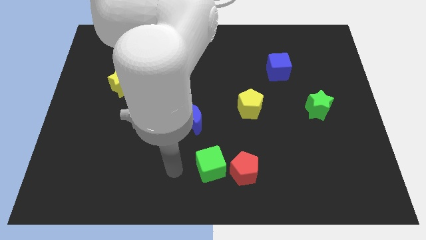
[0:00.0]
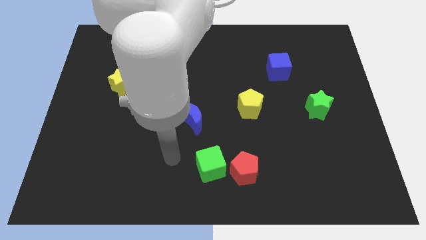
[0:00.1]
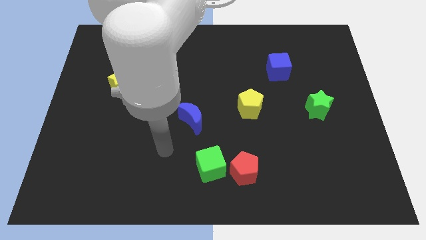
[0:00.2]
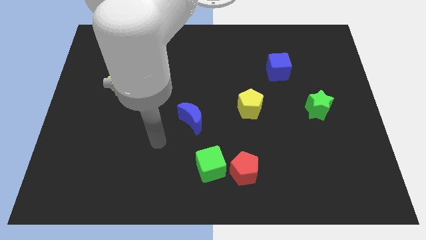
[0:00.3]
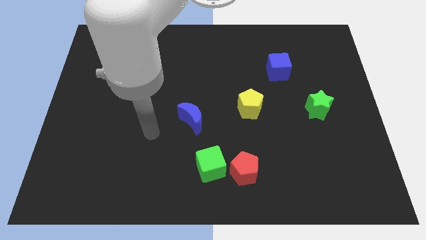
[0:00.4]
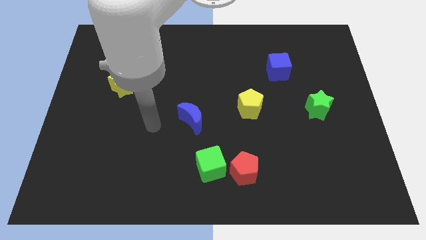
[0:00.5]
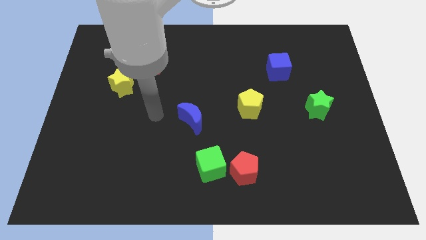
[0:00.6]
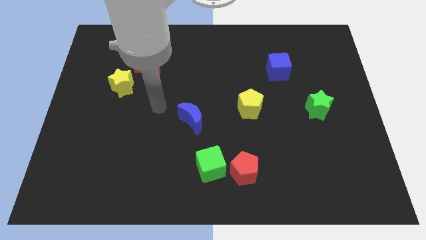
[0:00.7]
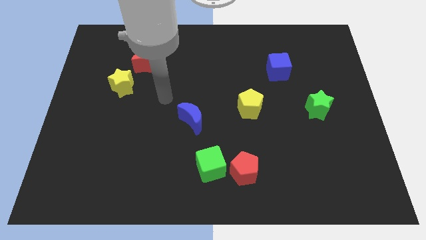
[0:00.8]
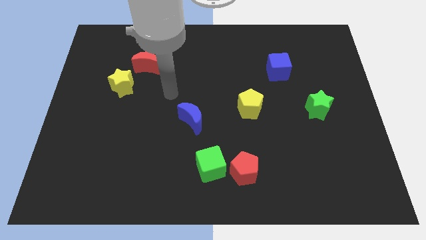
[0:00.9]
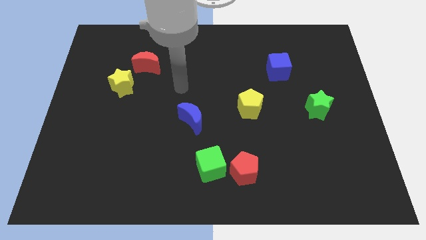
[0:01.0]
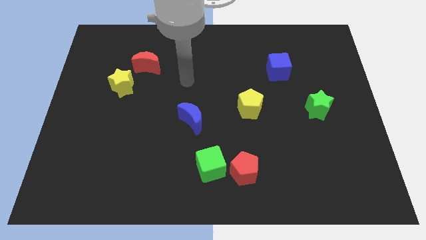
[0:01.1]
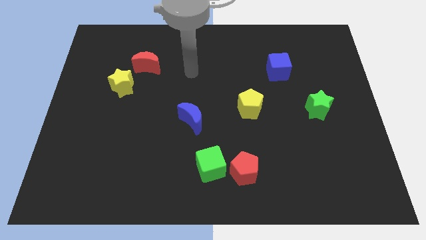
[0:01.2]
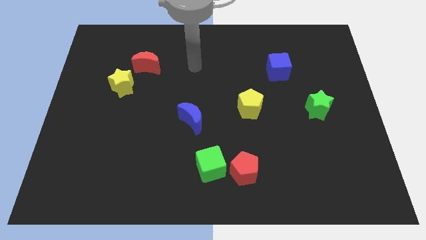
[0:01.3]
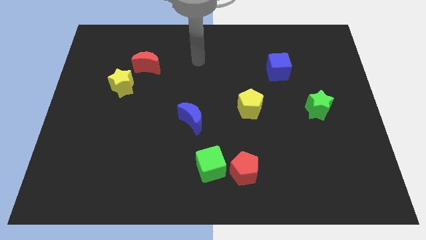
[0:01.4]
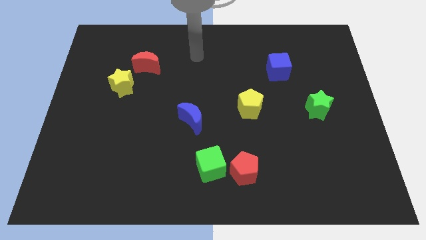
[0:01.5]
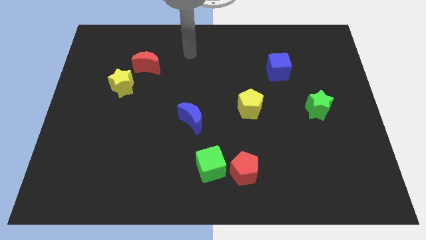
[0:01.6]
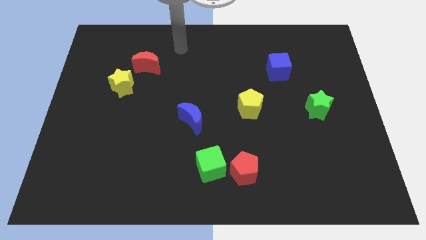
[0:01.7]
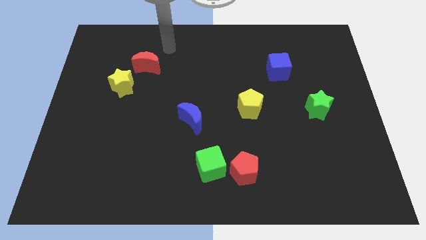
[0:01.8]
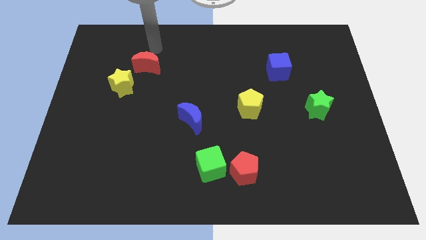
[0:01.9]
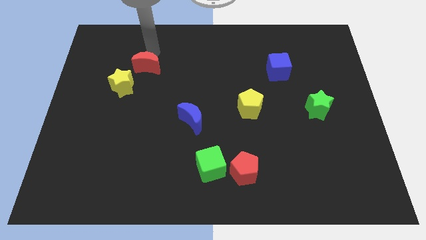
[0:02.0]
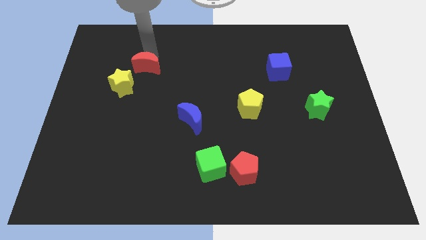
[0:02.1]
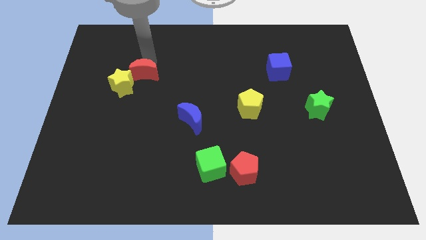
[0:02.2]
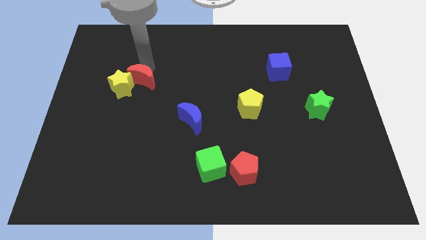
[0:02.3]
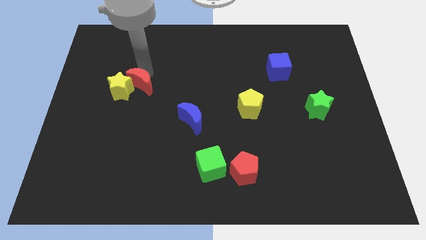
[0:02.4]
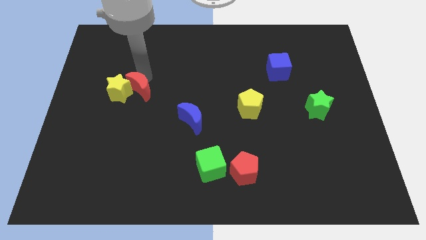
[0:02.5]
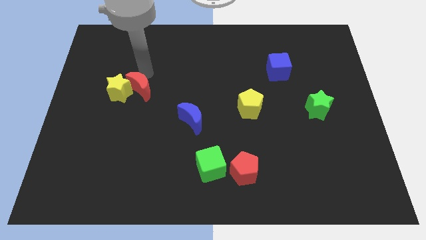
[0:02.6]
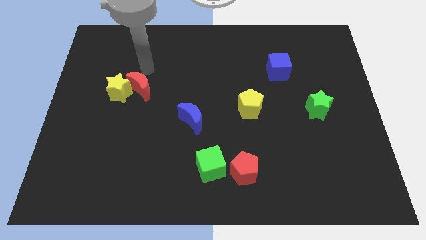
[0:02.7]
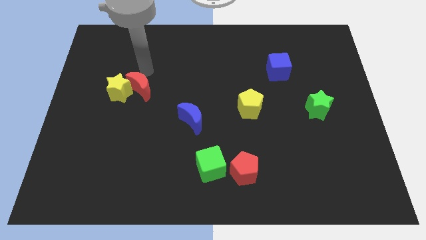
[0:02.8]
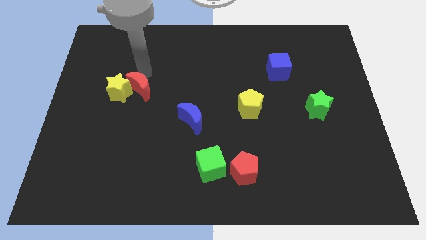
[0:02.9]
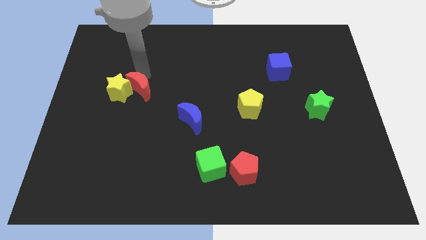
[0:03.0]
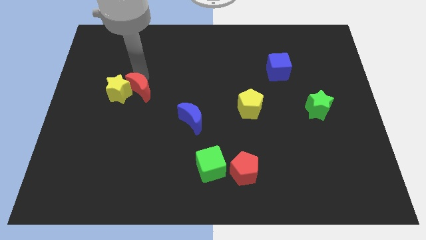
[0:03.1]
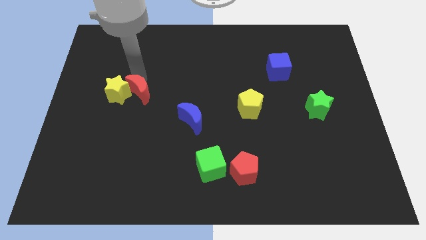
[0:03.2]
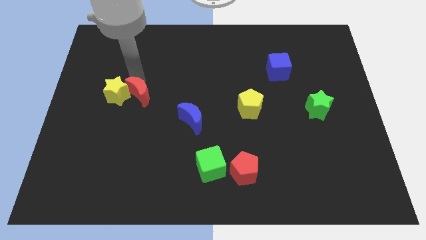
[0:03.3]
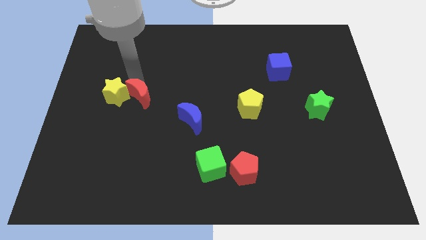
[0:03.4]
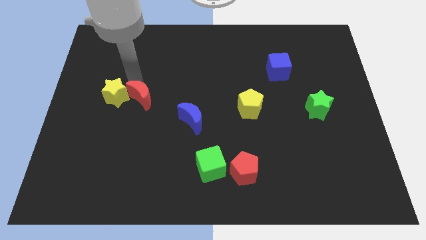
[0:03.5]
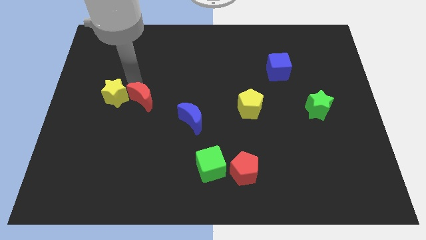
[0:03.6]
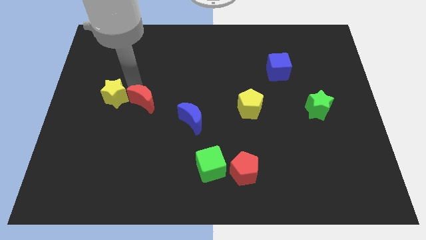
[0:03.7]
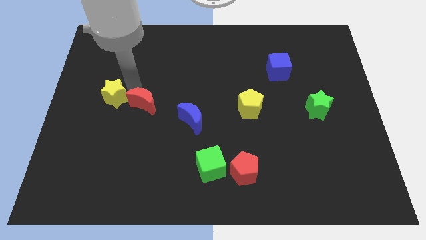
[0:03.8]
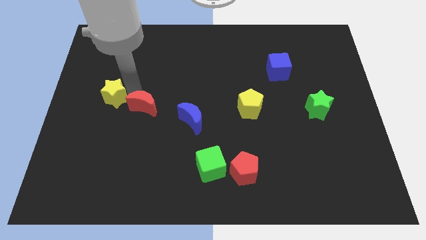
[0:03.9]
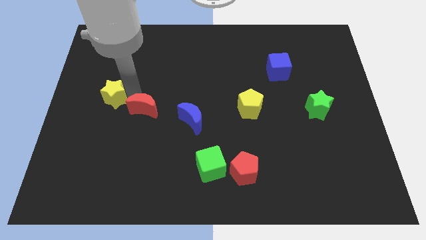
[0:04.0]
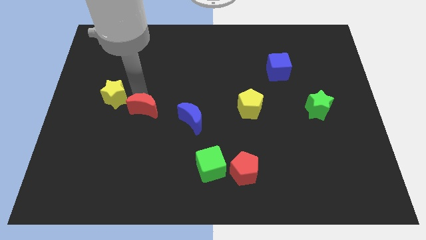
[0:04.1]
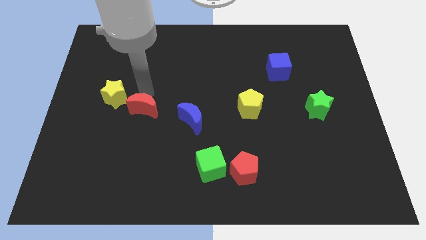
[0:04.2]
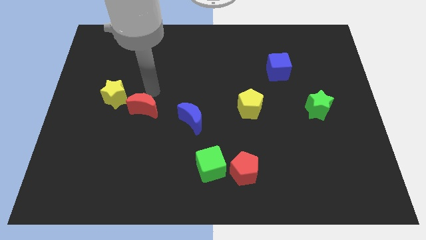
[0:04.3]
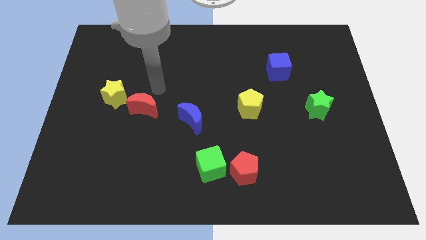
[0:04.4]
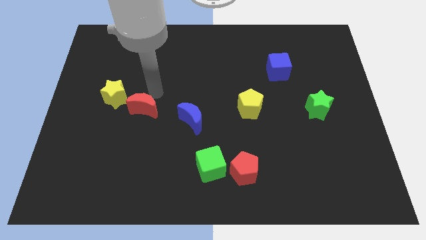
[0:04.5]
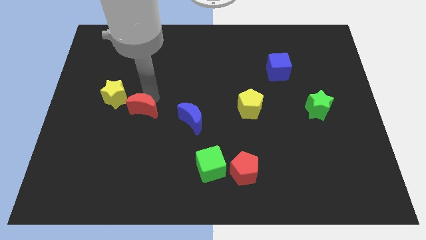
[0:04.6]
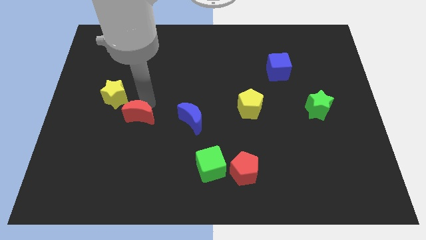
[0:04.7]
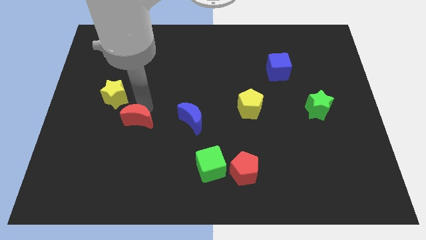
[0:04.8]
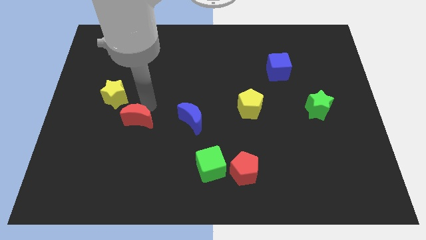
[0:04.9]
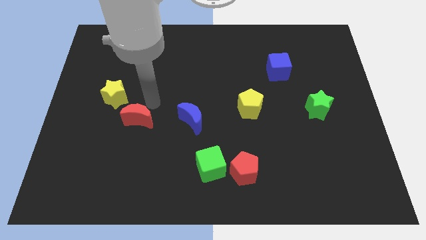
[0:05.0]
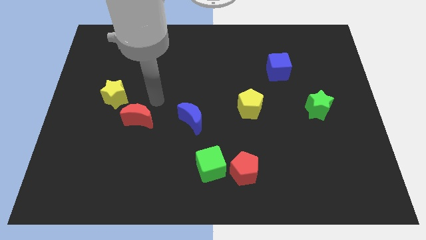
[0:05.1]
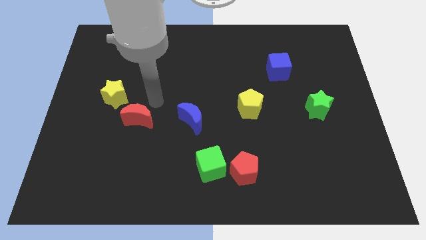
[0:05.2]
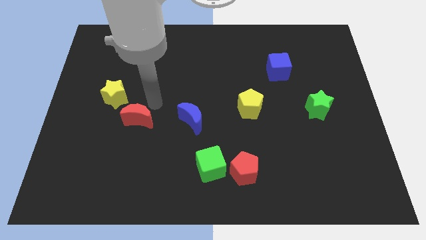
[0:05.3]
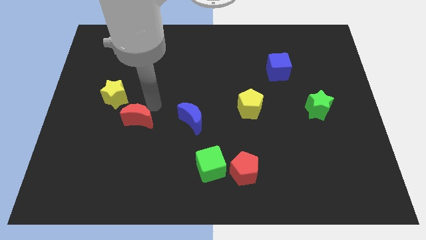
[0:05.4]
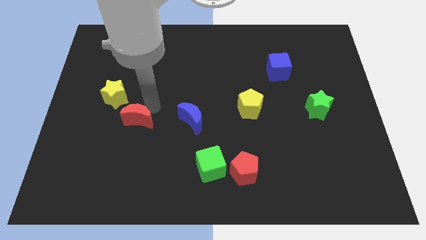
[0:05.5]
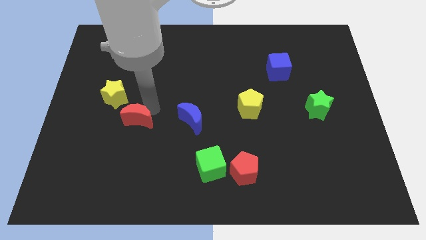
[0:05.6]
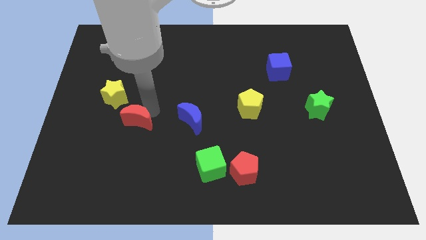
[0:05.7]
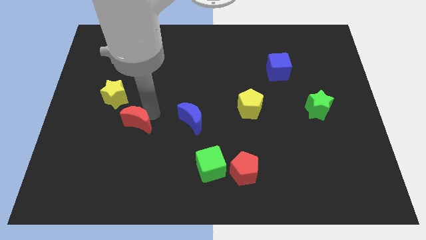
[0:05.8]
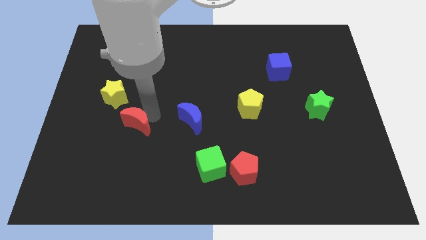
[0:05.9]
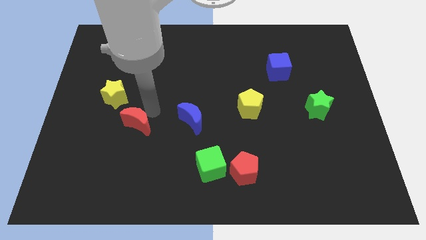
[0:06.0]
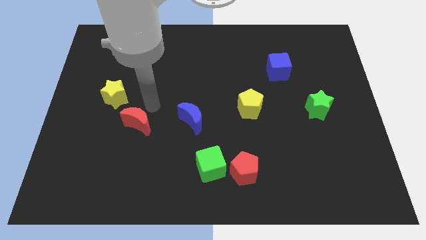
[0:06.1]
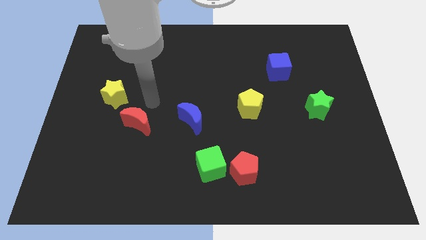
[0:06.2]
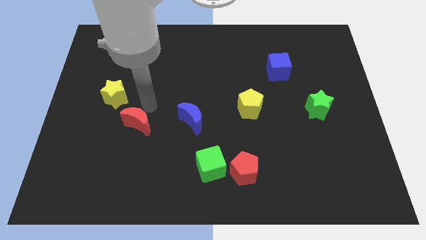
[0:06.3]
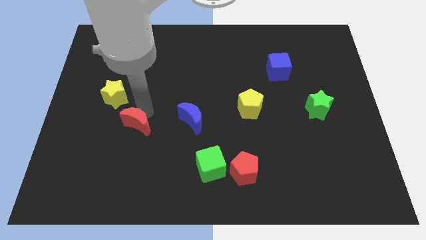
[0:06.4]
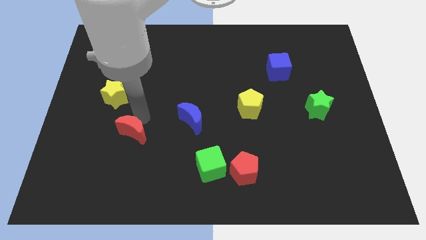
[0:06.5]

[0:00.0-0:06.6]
push the red moon down

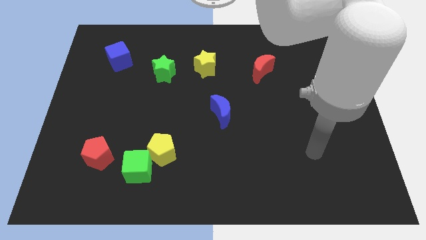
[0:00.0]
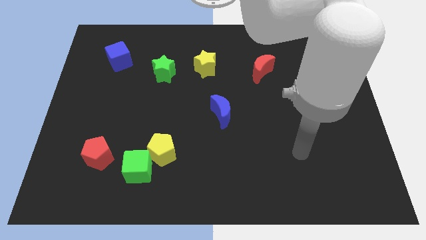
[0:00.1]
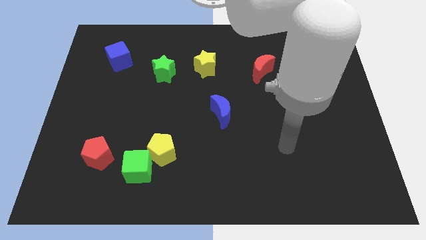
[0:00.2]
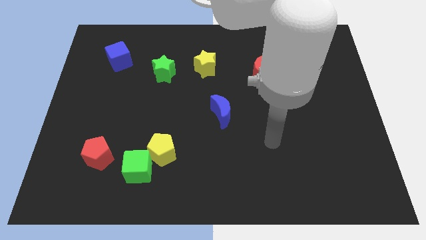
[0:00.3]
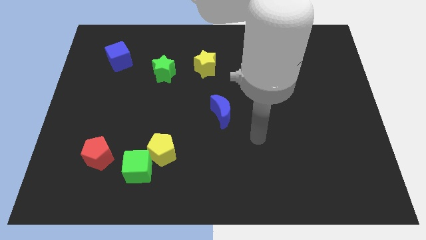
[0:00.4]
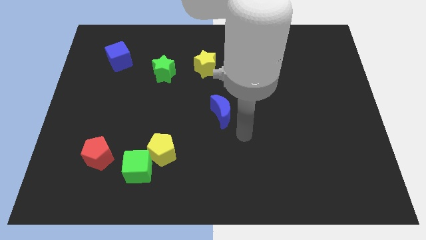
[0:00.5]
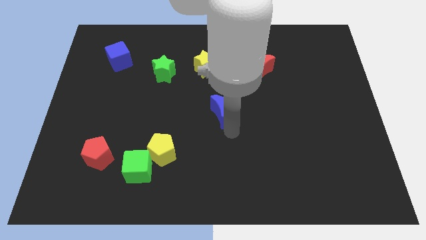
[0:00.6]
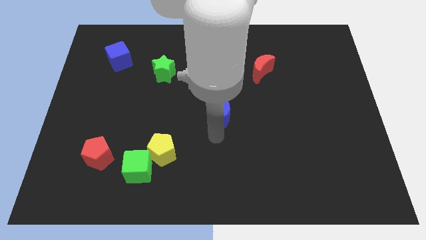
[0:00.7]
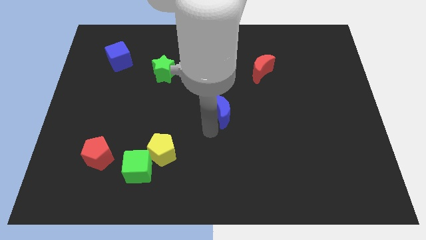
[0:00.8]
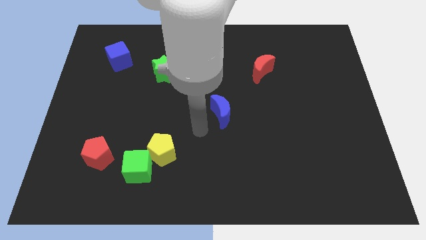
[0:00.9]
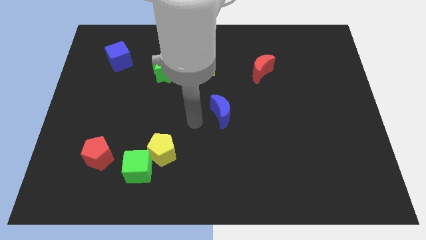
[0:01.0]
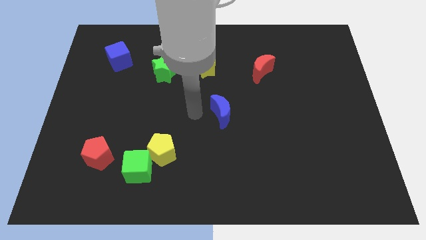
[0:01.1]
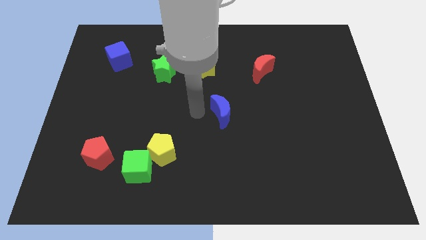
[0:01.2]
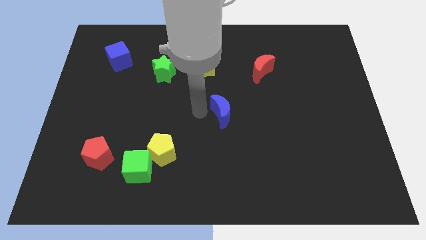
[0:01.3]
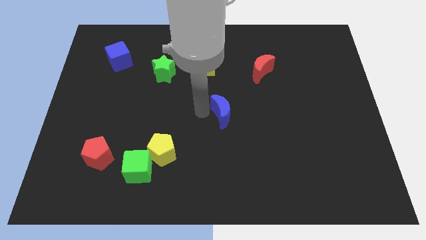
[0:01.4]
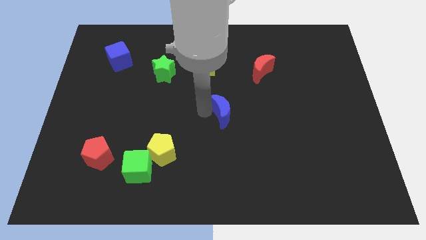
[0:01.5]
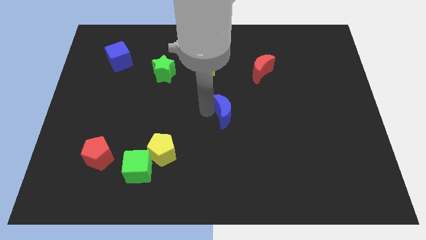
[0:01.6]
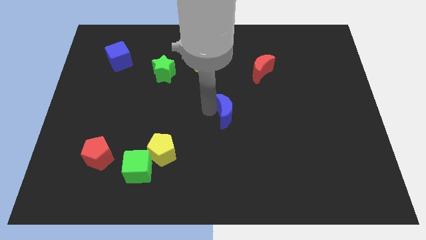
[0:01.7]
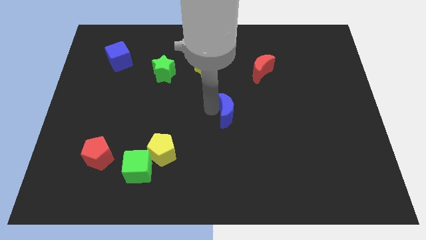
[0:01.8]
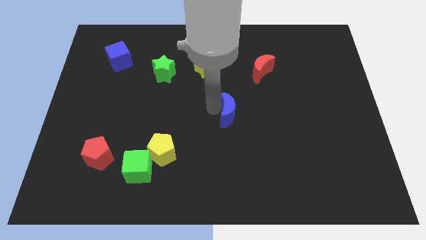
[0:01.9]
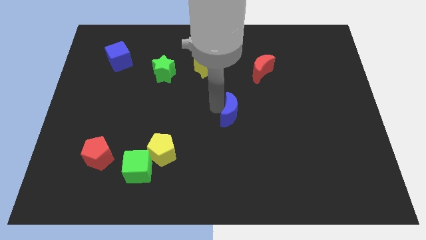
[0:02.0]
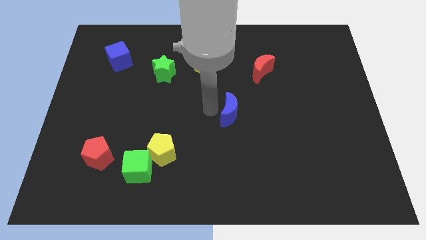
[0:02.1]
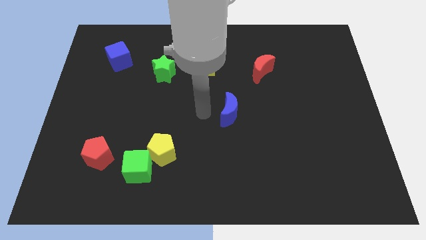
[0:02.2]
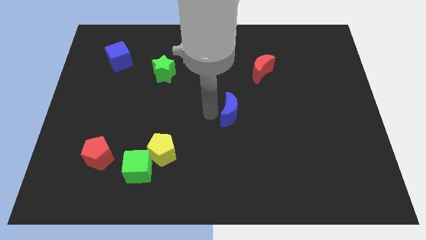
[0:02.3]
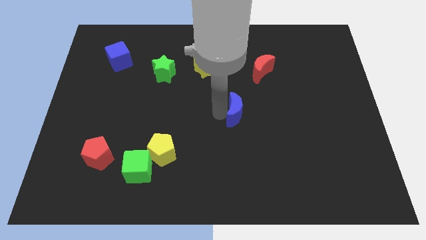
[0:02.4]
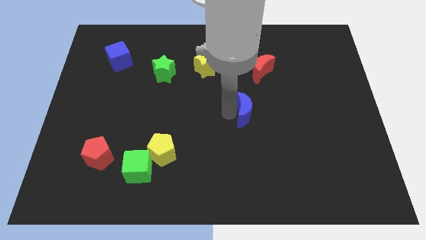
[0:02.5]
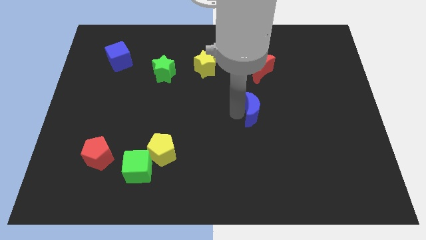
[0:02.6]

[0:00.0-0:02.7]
slide the blue moon right slightly
